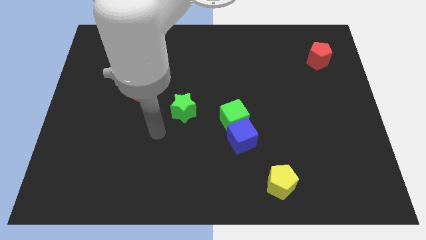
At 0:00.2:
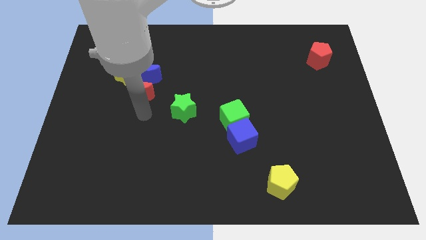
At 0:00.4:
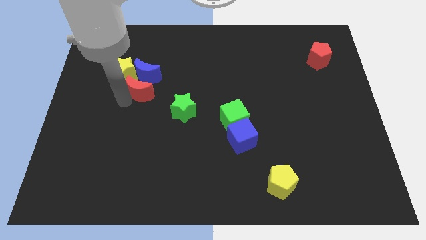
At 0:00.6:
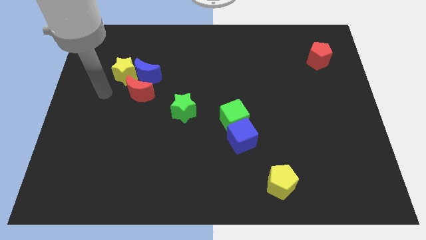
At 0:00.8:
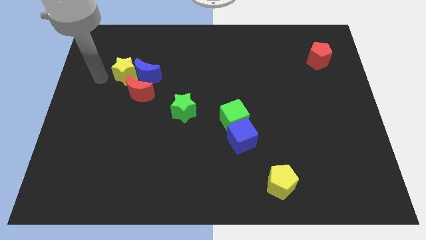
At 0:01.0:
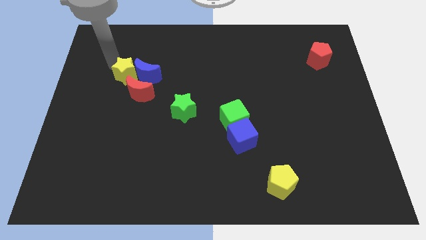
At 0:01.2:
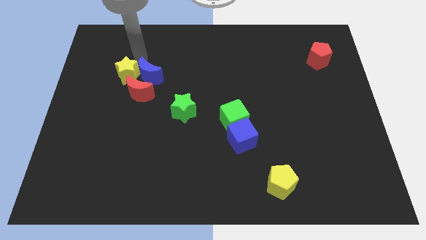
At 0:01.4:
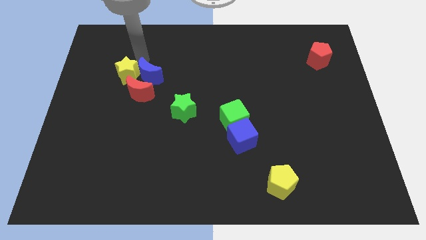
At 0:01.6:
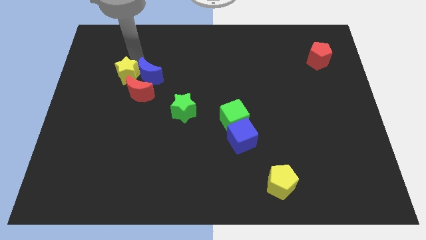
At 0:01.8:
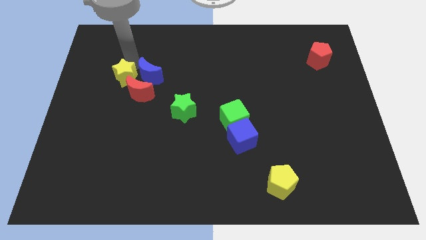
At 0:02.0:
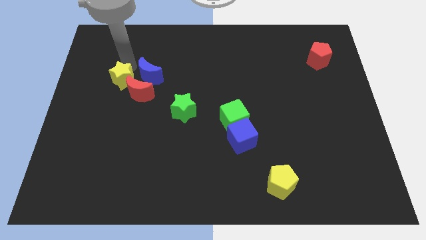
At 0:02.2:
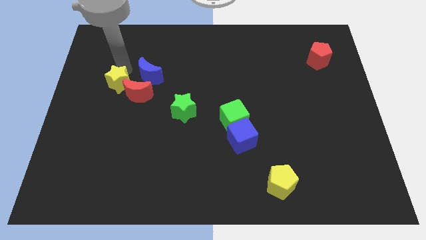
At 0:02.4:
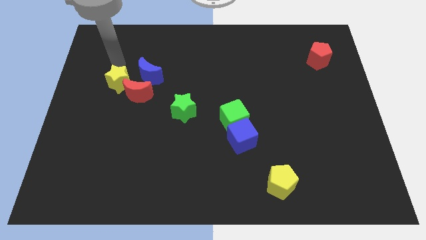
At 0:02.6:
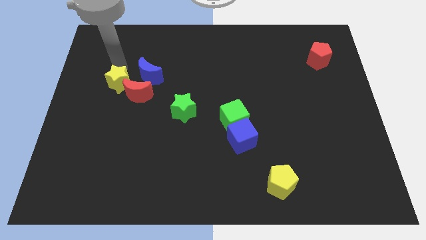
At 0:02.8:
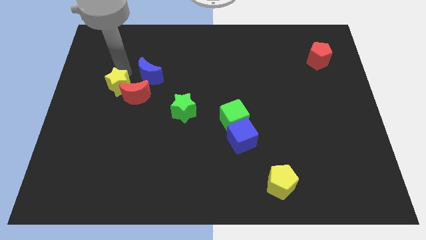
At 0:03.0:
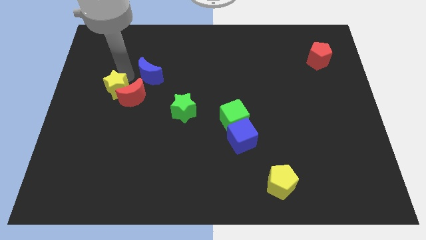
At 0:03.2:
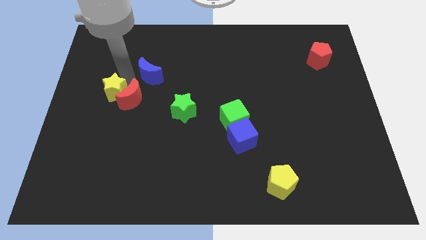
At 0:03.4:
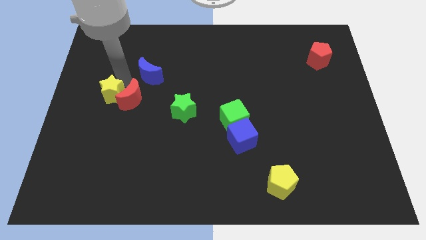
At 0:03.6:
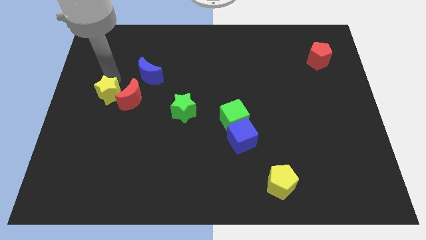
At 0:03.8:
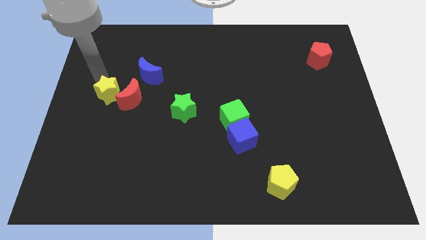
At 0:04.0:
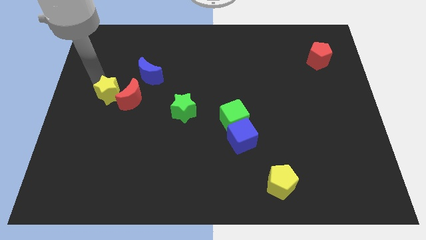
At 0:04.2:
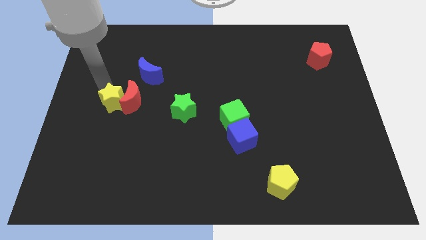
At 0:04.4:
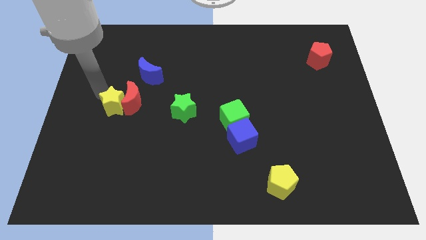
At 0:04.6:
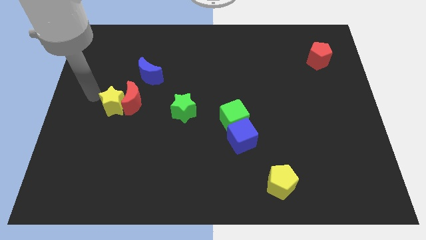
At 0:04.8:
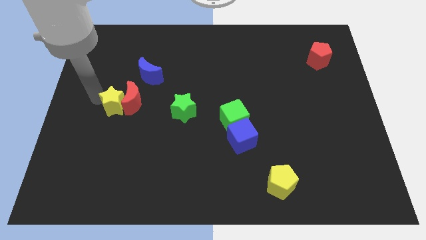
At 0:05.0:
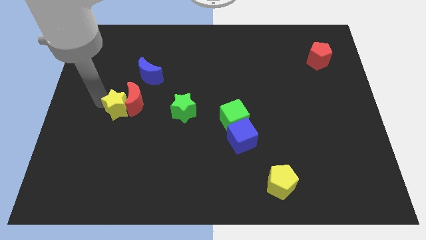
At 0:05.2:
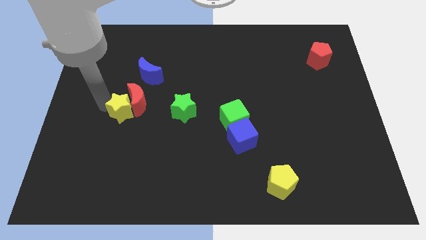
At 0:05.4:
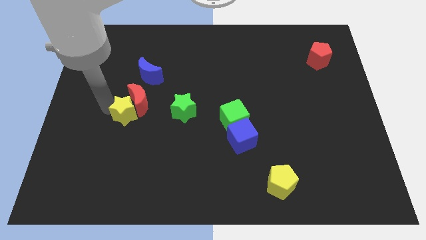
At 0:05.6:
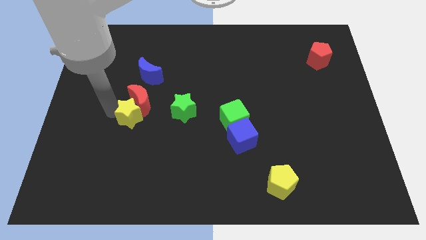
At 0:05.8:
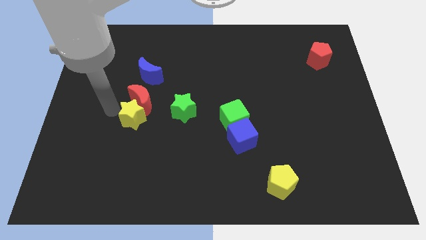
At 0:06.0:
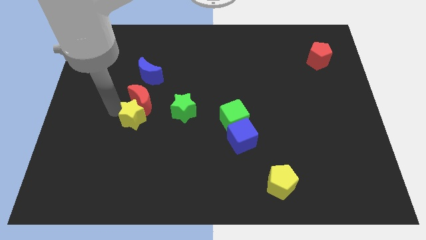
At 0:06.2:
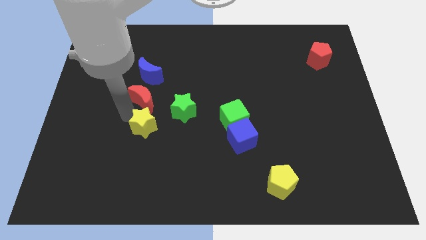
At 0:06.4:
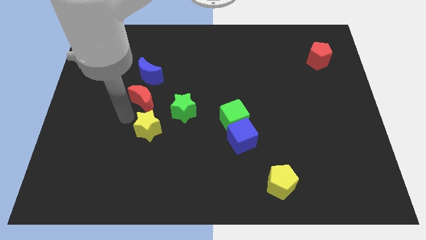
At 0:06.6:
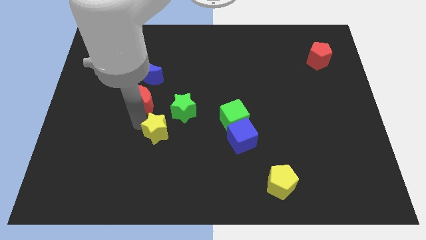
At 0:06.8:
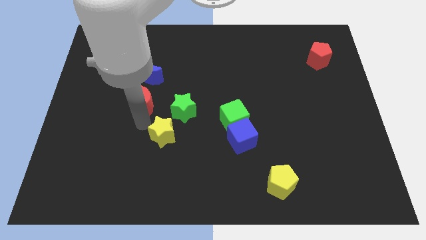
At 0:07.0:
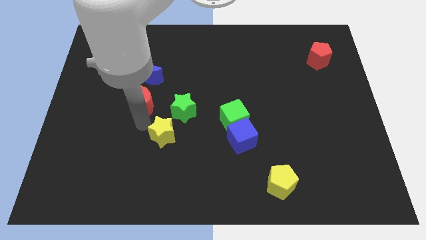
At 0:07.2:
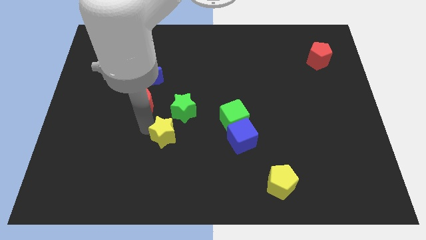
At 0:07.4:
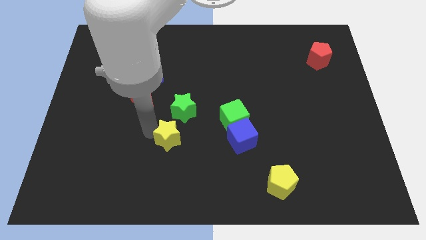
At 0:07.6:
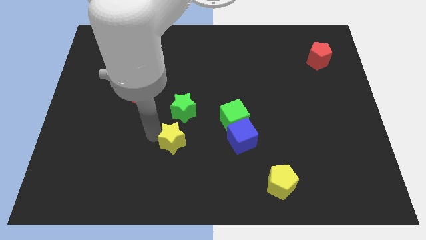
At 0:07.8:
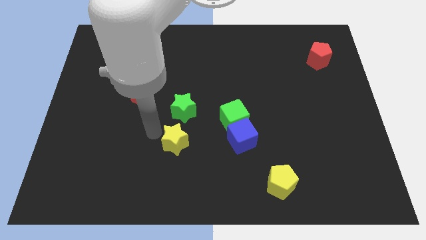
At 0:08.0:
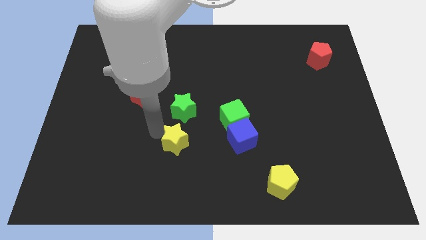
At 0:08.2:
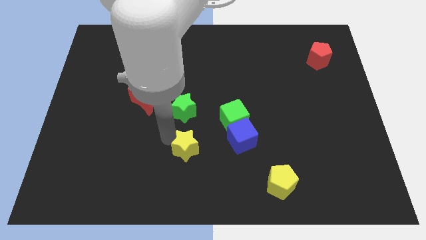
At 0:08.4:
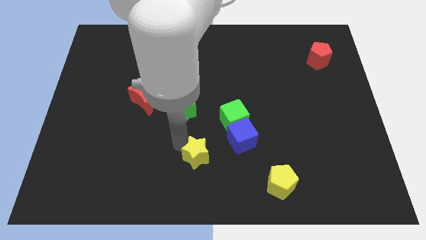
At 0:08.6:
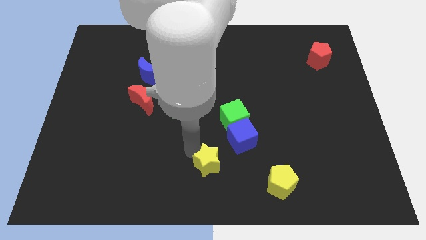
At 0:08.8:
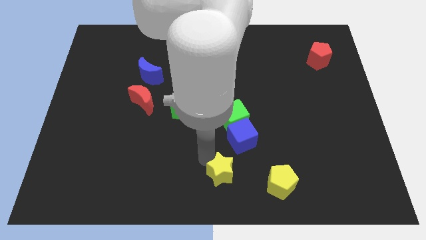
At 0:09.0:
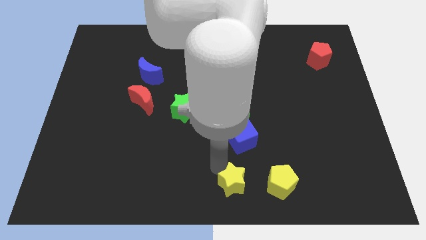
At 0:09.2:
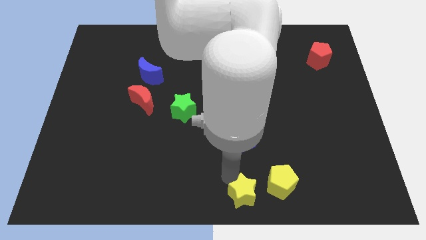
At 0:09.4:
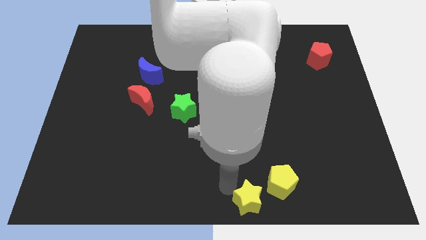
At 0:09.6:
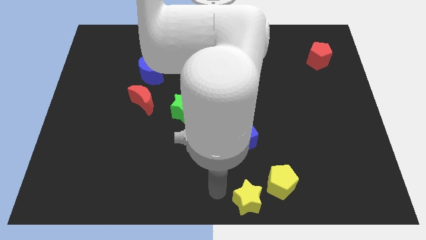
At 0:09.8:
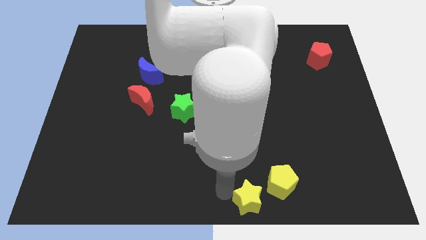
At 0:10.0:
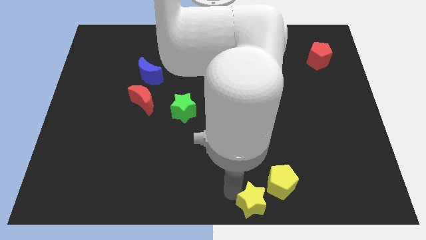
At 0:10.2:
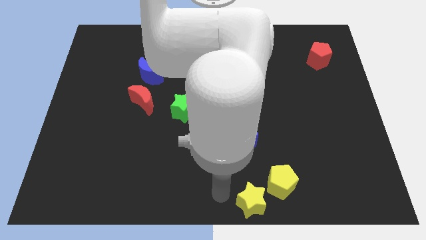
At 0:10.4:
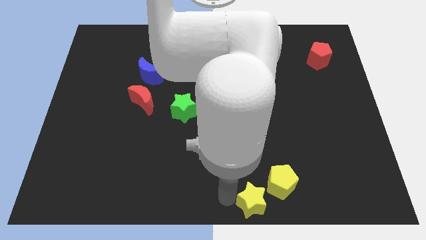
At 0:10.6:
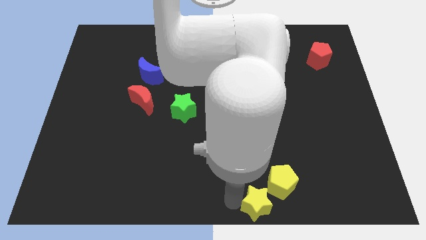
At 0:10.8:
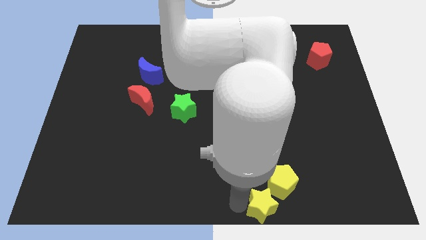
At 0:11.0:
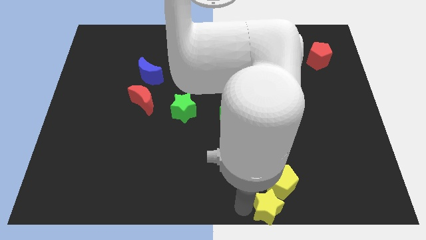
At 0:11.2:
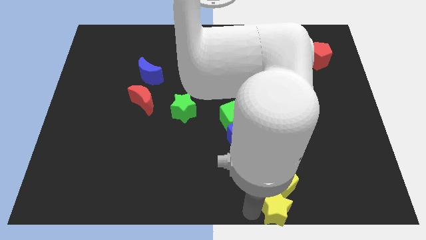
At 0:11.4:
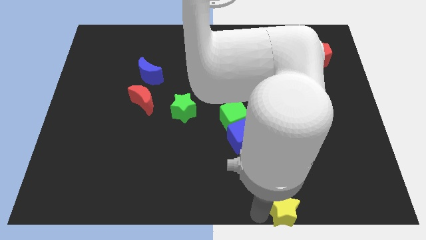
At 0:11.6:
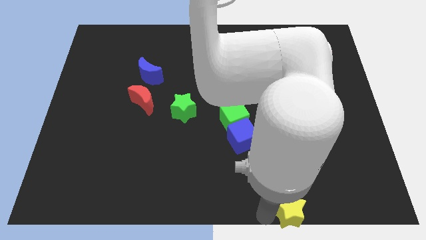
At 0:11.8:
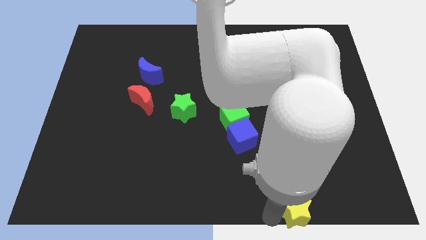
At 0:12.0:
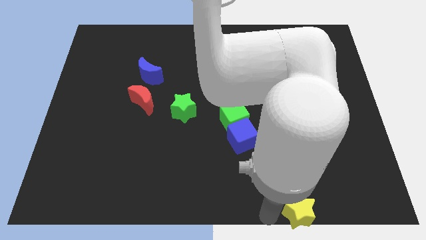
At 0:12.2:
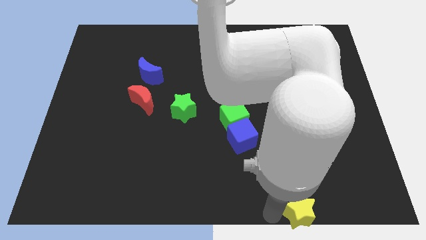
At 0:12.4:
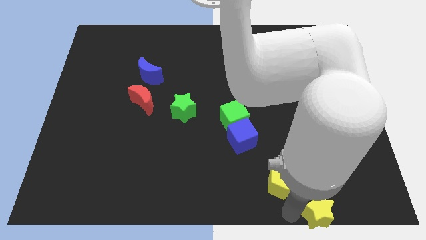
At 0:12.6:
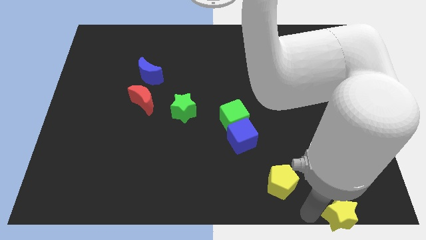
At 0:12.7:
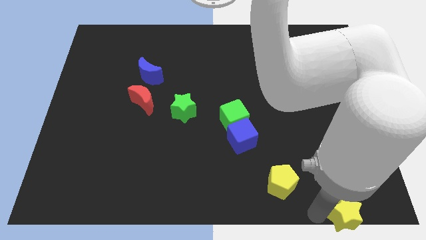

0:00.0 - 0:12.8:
slide the yellow star to the bottom right corner

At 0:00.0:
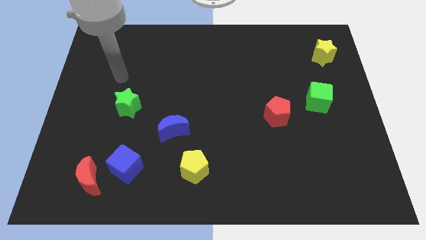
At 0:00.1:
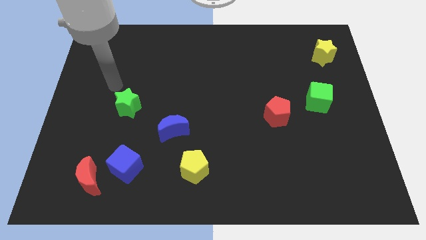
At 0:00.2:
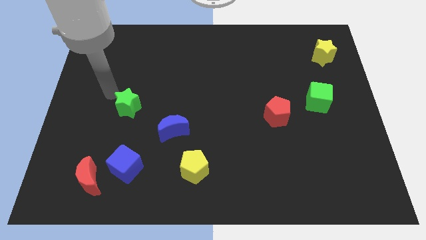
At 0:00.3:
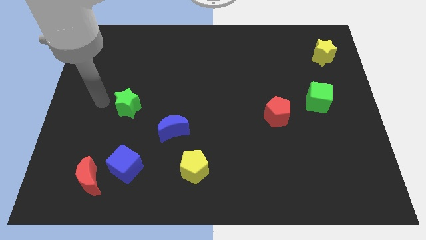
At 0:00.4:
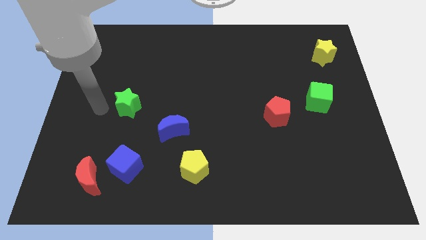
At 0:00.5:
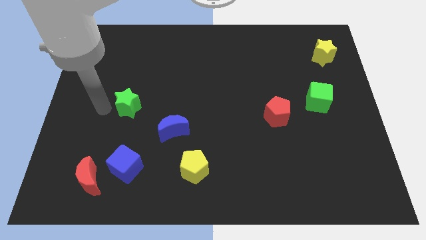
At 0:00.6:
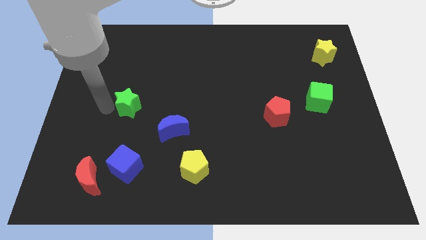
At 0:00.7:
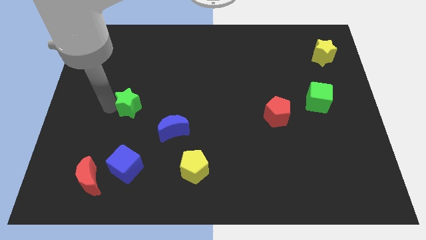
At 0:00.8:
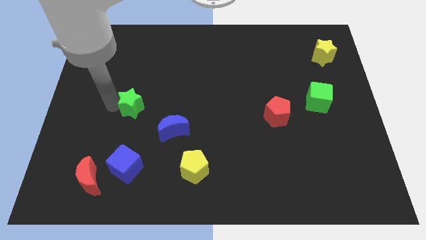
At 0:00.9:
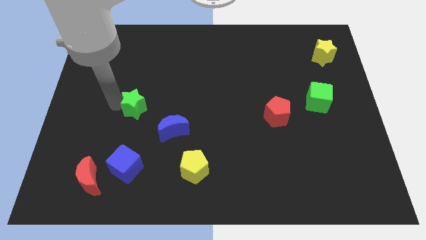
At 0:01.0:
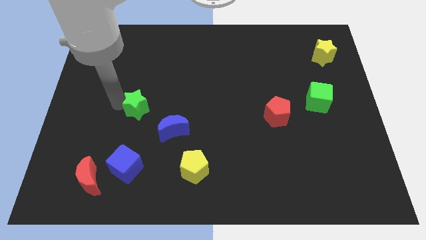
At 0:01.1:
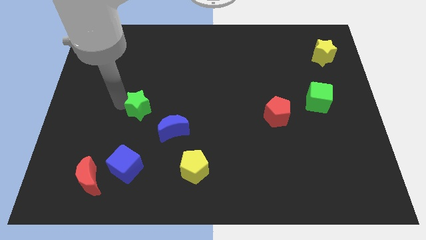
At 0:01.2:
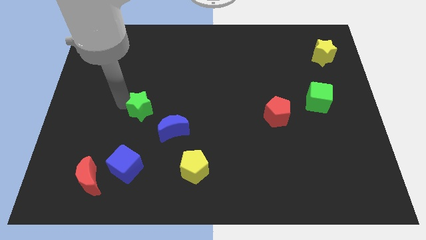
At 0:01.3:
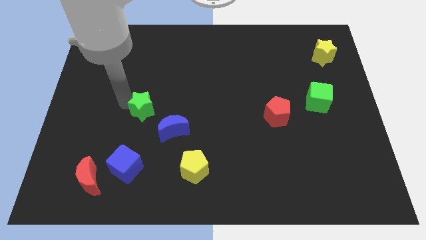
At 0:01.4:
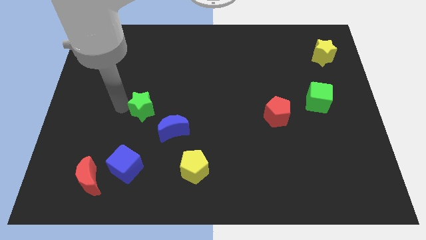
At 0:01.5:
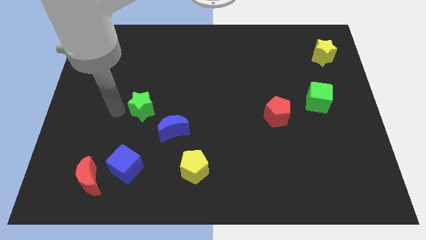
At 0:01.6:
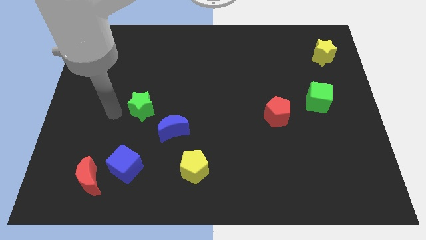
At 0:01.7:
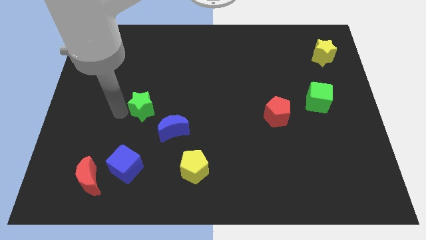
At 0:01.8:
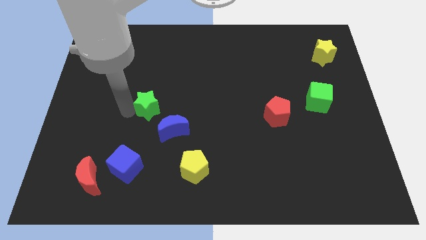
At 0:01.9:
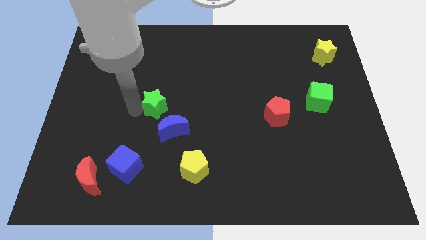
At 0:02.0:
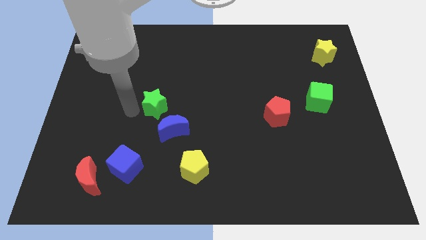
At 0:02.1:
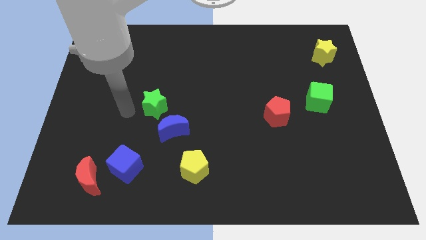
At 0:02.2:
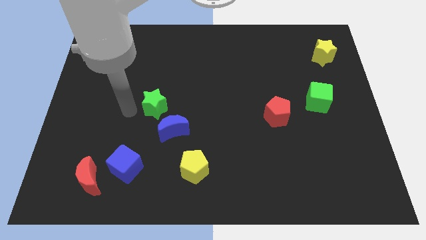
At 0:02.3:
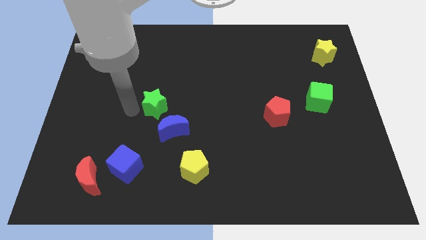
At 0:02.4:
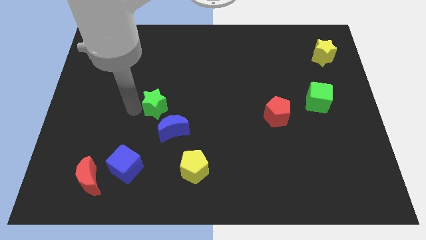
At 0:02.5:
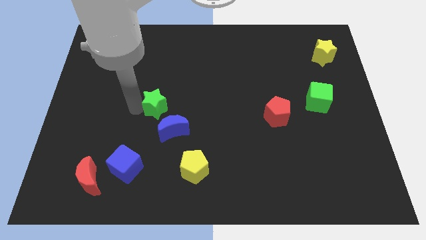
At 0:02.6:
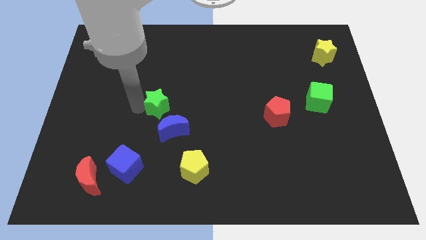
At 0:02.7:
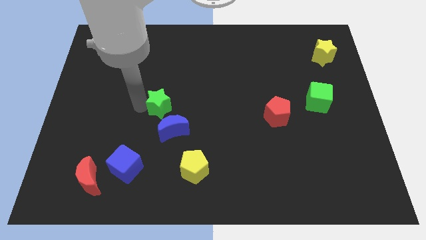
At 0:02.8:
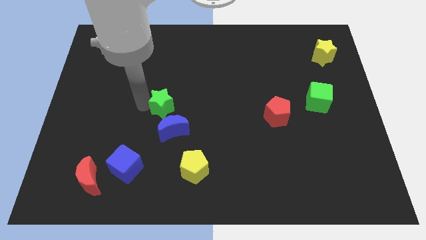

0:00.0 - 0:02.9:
move the green star to the center of the board
